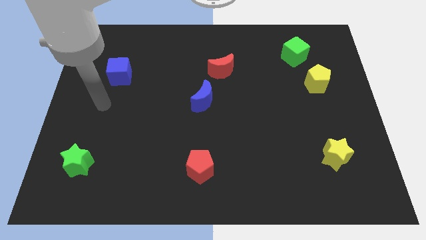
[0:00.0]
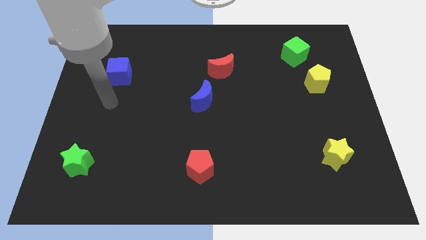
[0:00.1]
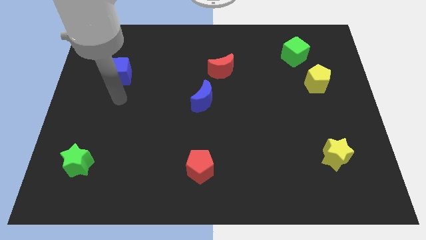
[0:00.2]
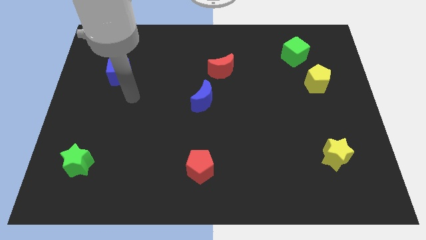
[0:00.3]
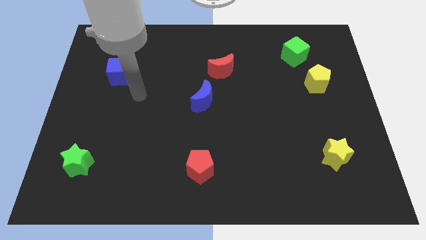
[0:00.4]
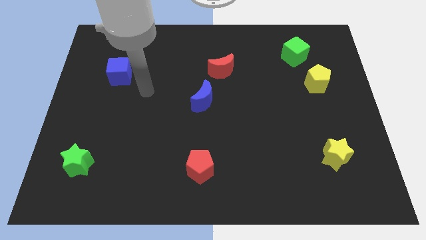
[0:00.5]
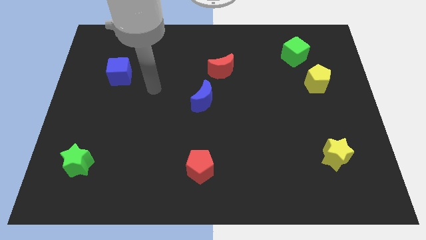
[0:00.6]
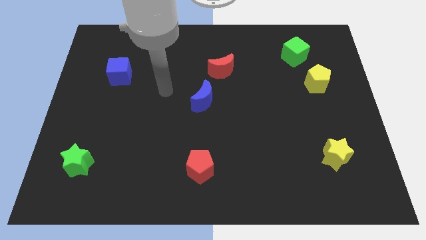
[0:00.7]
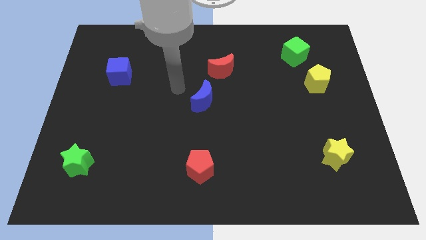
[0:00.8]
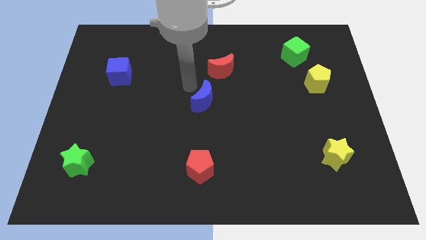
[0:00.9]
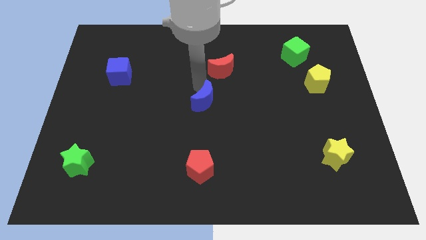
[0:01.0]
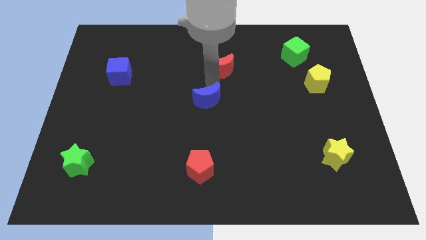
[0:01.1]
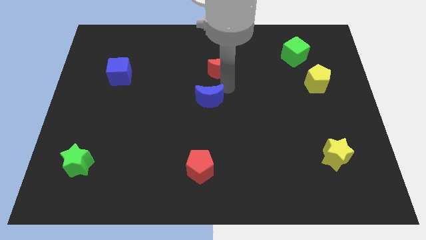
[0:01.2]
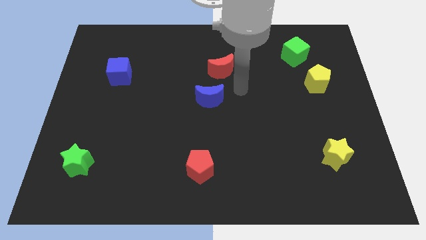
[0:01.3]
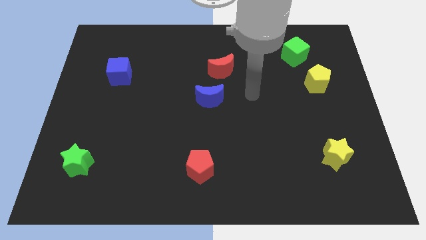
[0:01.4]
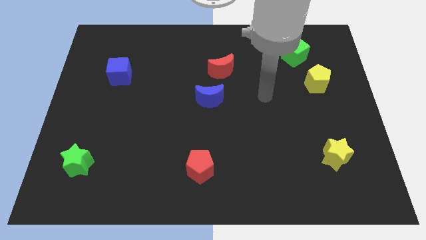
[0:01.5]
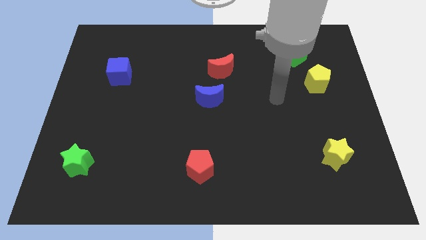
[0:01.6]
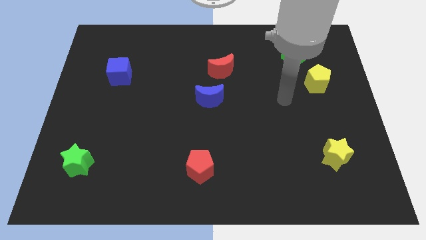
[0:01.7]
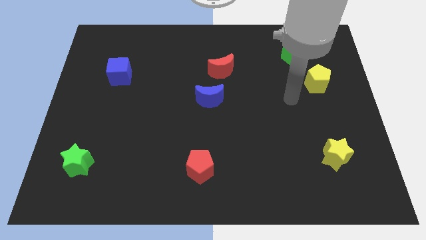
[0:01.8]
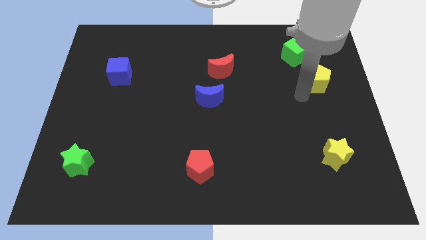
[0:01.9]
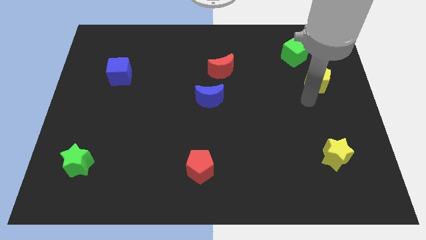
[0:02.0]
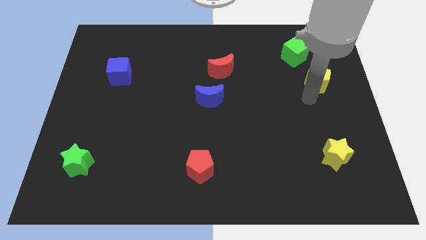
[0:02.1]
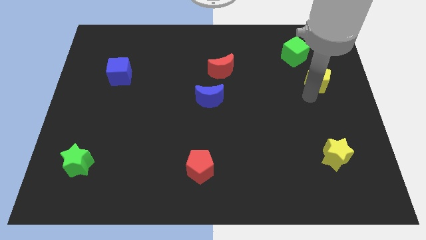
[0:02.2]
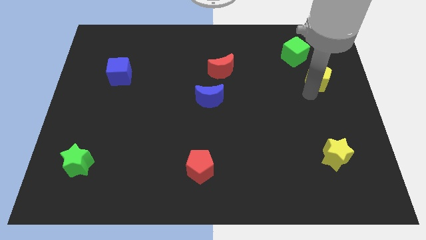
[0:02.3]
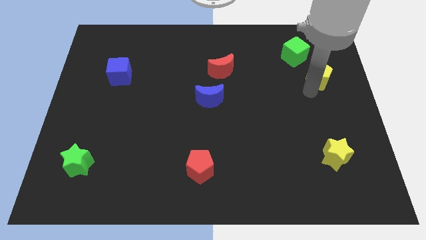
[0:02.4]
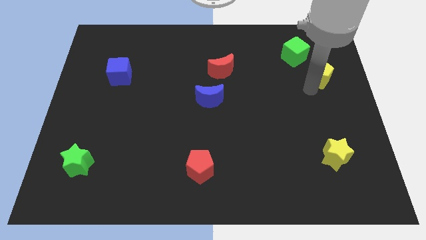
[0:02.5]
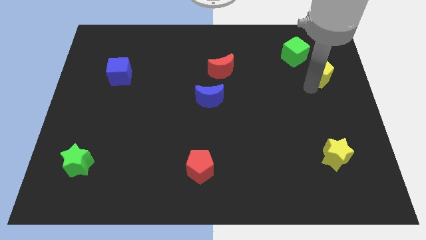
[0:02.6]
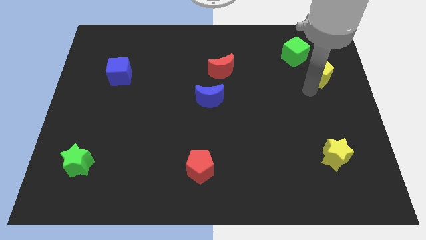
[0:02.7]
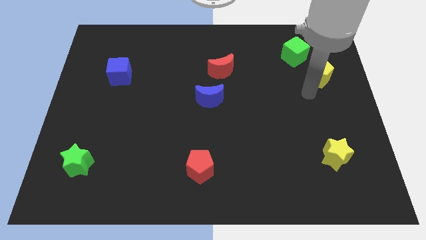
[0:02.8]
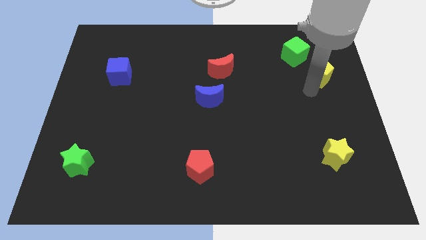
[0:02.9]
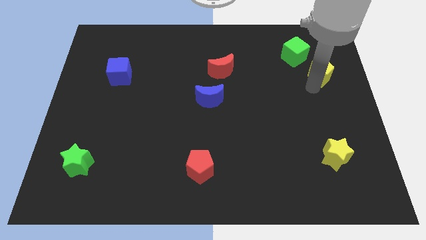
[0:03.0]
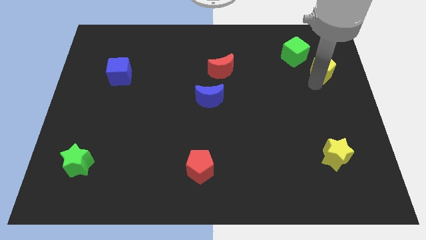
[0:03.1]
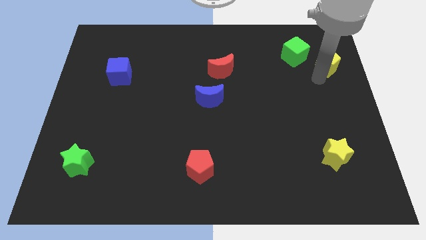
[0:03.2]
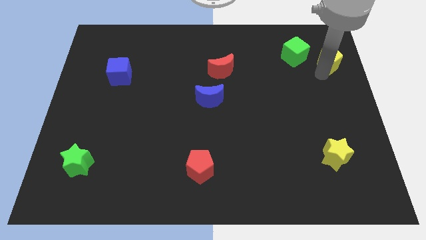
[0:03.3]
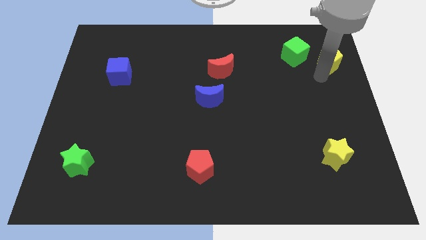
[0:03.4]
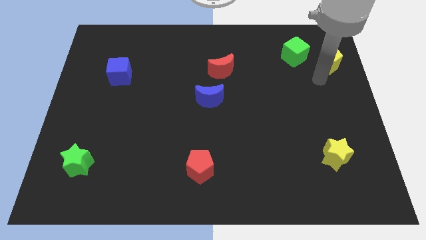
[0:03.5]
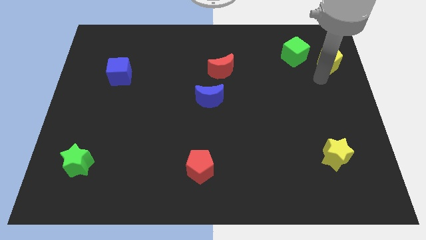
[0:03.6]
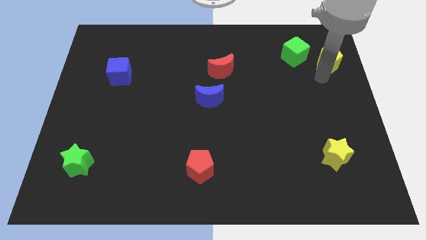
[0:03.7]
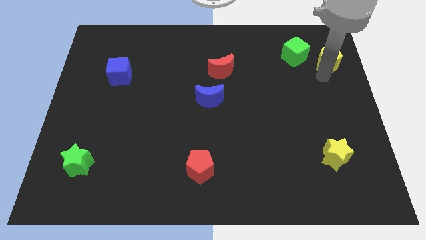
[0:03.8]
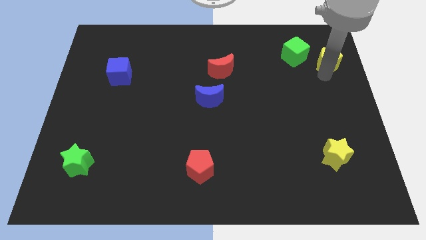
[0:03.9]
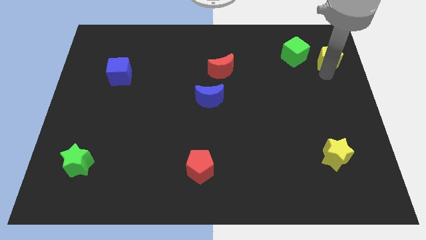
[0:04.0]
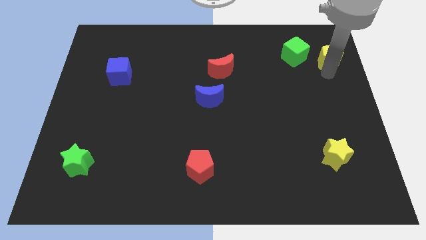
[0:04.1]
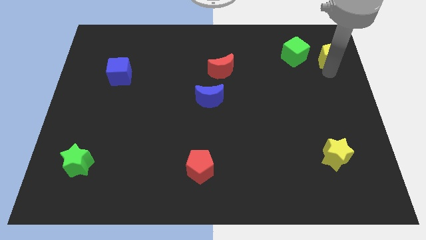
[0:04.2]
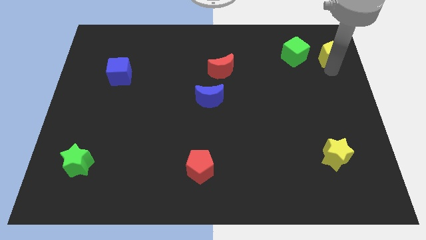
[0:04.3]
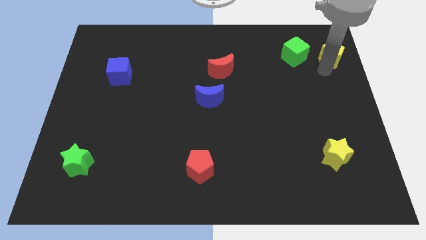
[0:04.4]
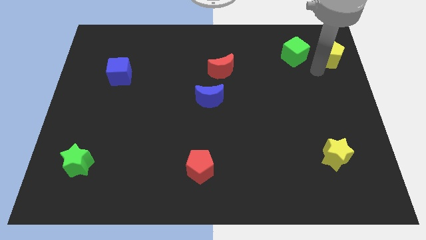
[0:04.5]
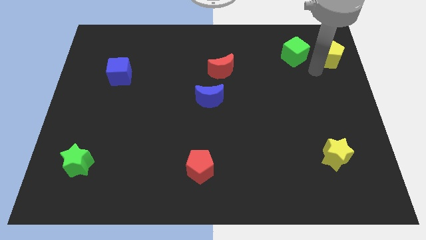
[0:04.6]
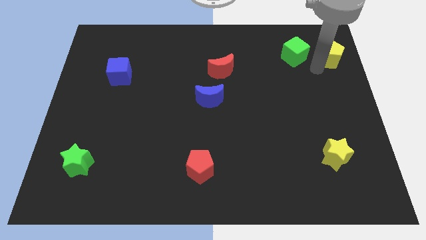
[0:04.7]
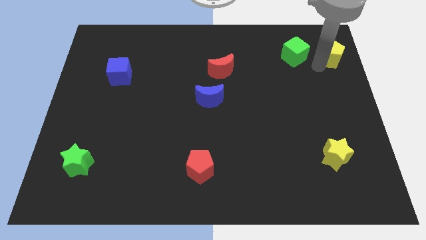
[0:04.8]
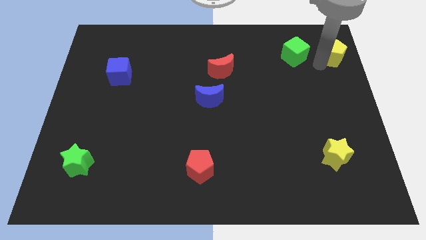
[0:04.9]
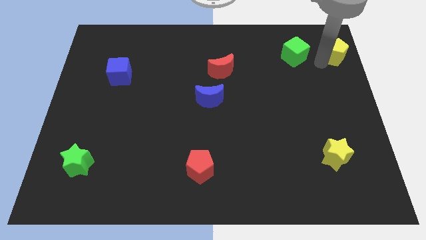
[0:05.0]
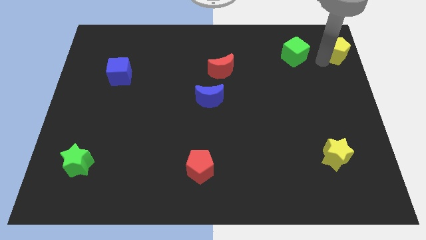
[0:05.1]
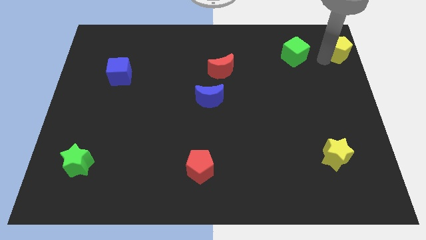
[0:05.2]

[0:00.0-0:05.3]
push the yellow pentagon to the top right corner
